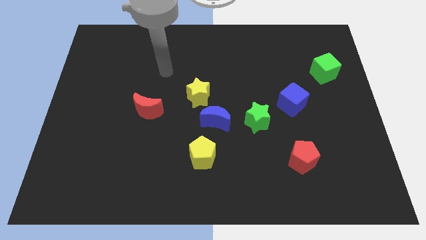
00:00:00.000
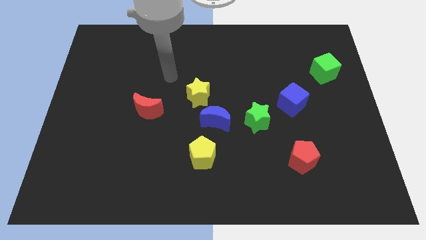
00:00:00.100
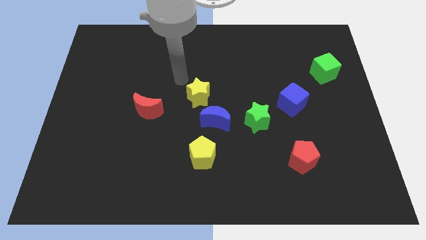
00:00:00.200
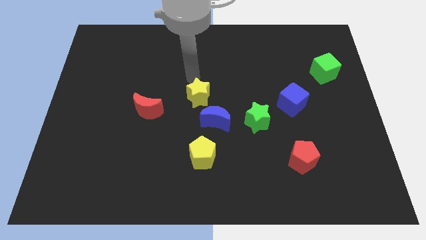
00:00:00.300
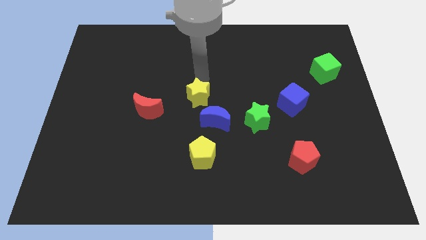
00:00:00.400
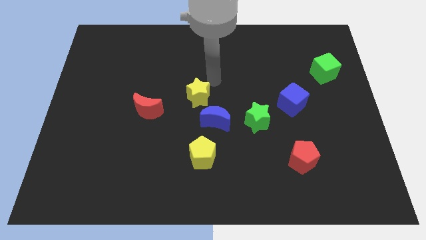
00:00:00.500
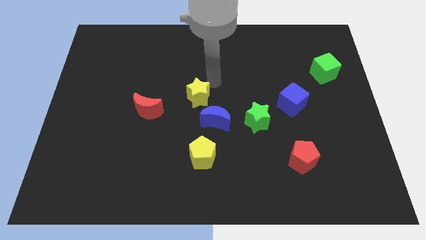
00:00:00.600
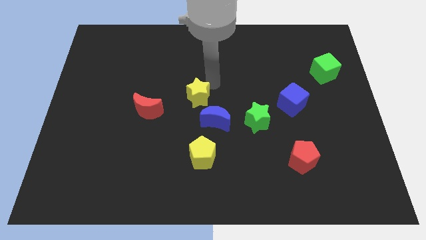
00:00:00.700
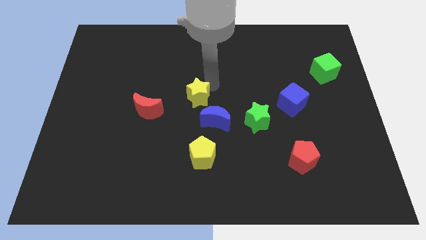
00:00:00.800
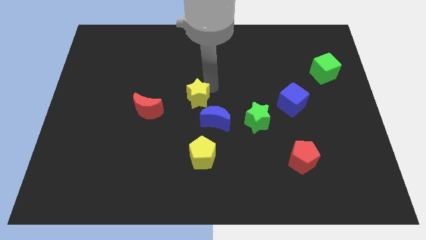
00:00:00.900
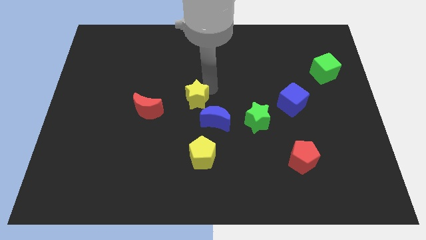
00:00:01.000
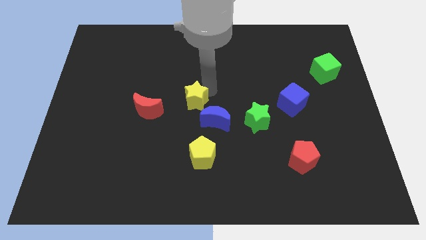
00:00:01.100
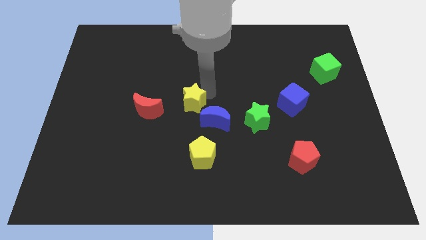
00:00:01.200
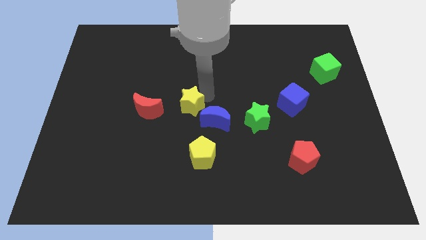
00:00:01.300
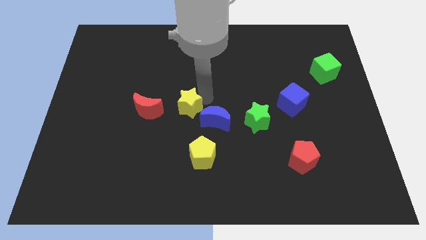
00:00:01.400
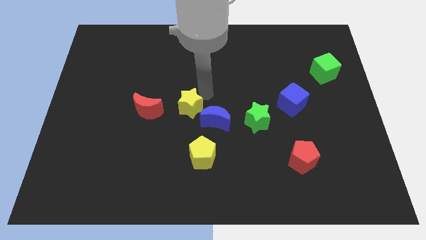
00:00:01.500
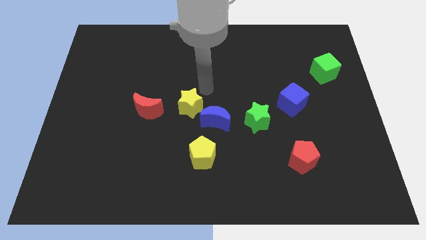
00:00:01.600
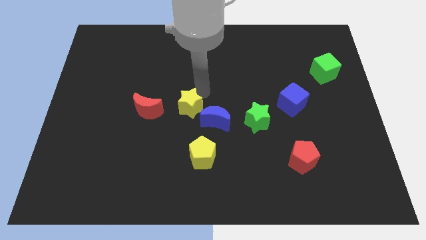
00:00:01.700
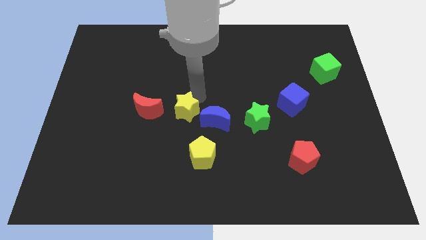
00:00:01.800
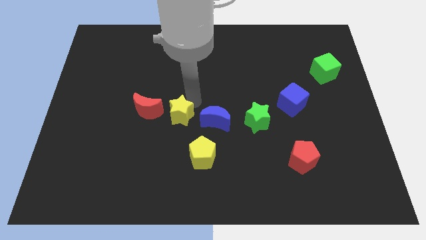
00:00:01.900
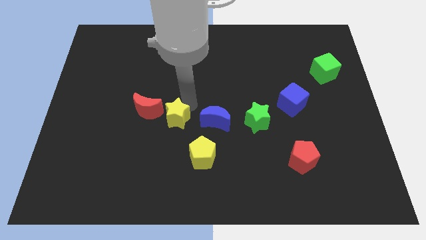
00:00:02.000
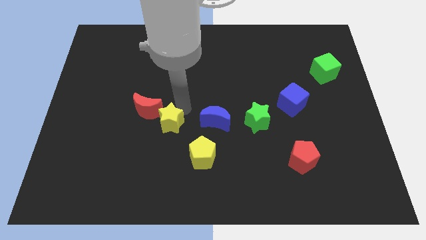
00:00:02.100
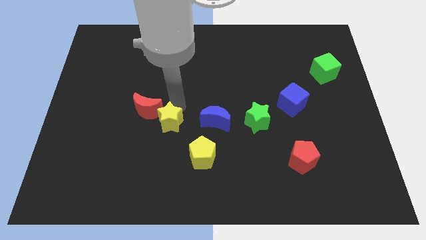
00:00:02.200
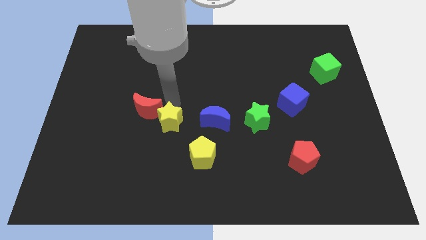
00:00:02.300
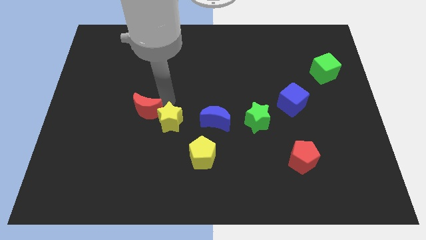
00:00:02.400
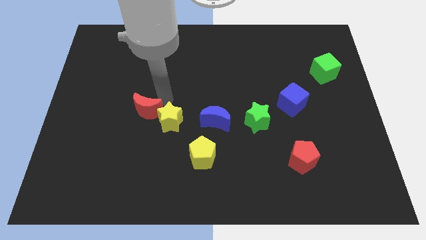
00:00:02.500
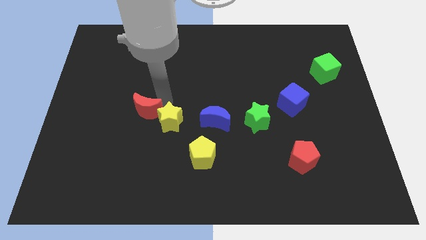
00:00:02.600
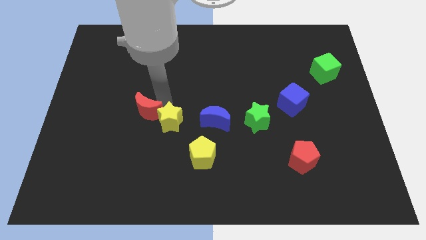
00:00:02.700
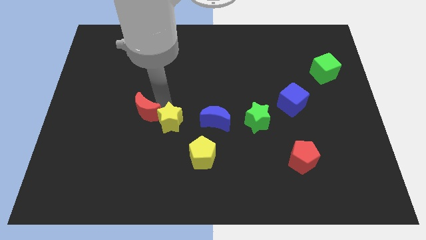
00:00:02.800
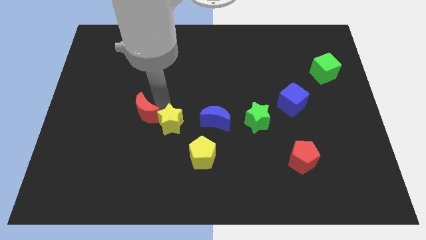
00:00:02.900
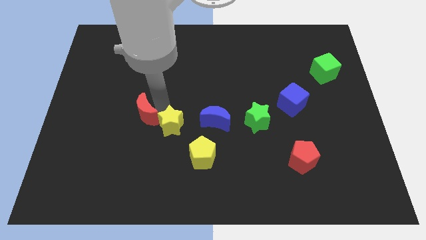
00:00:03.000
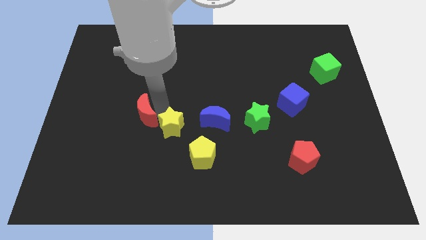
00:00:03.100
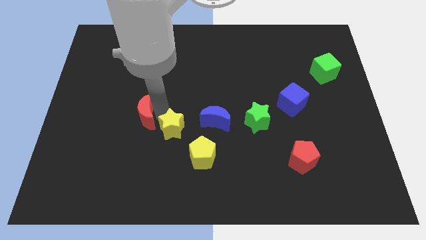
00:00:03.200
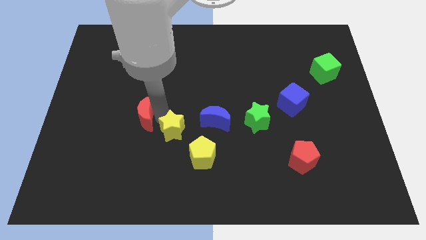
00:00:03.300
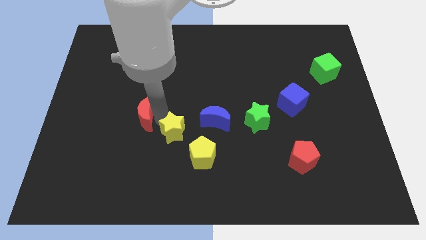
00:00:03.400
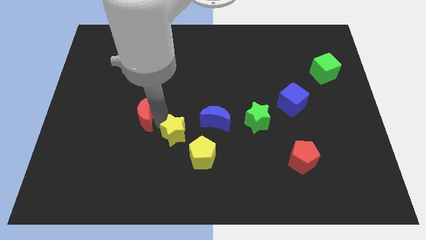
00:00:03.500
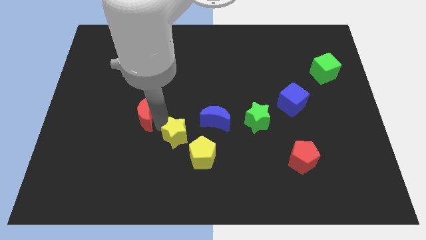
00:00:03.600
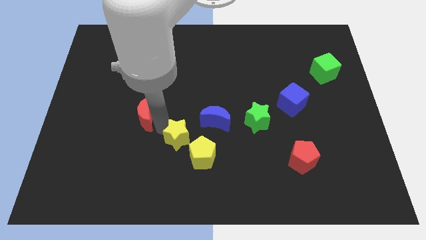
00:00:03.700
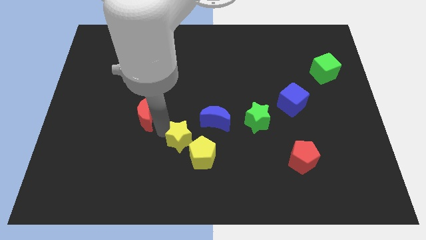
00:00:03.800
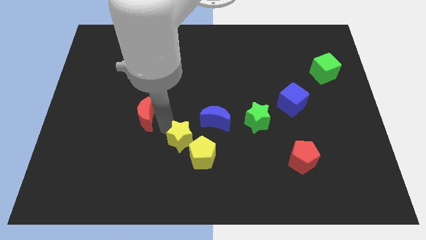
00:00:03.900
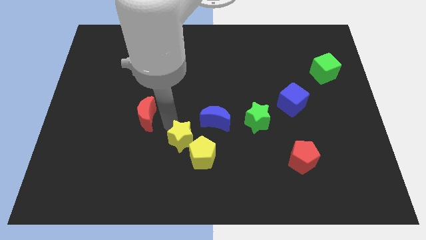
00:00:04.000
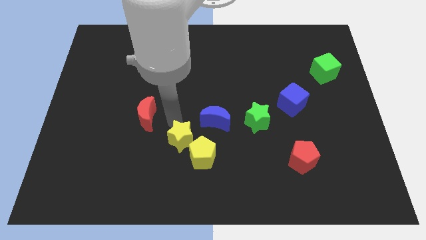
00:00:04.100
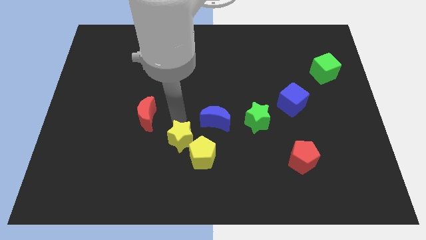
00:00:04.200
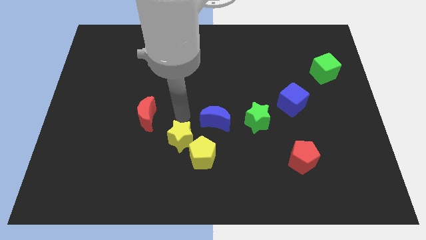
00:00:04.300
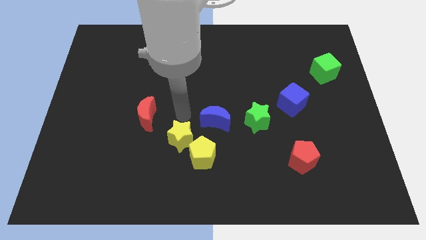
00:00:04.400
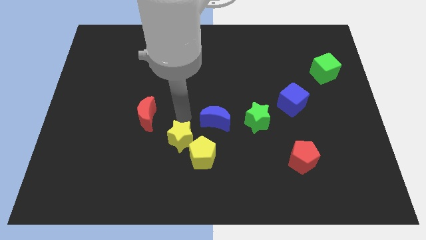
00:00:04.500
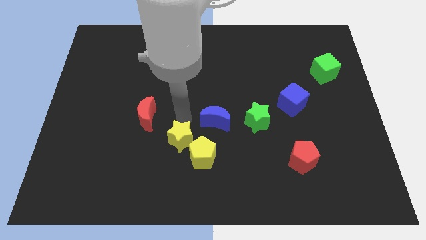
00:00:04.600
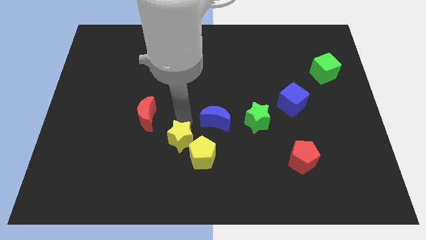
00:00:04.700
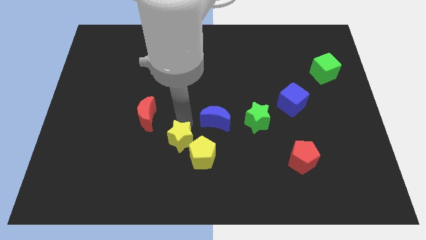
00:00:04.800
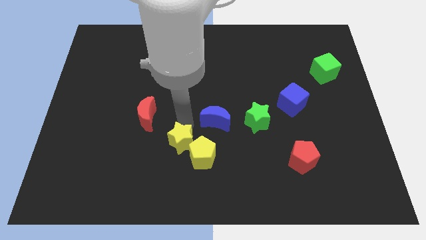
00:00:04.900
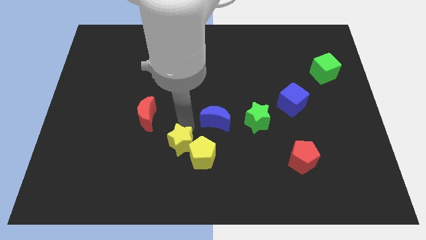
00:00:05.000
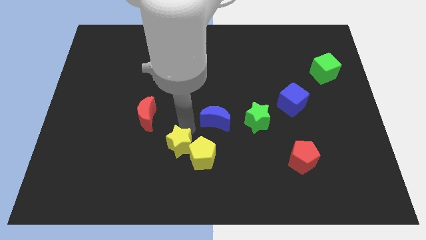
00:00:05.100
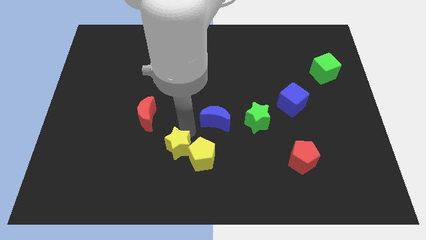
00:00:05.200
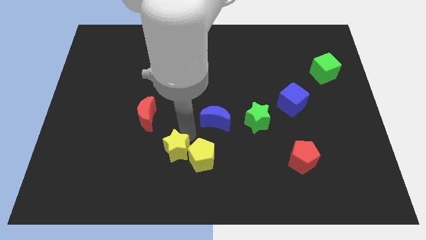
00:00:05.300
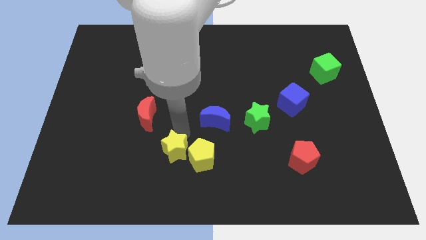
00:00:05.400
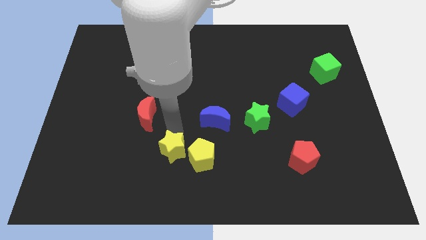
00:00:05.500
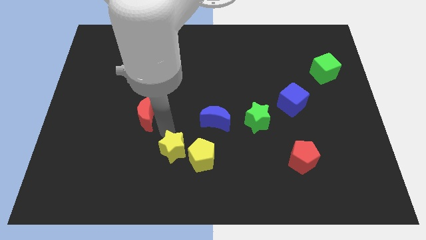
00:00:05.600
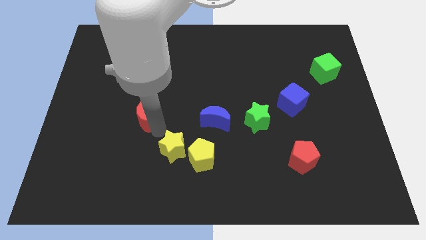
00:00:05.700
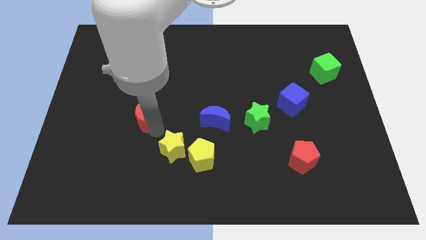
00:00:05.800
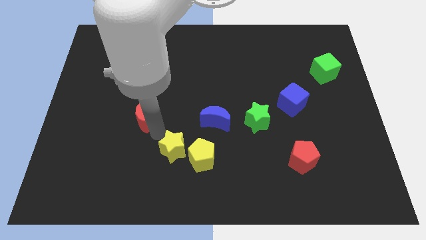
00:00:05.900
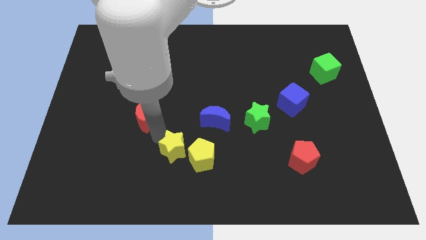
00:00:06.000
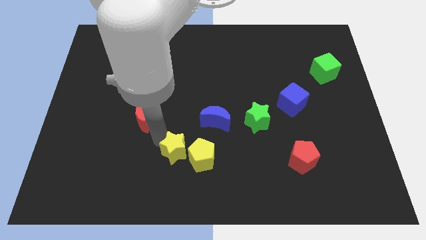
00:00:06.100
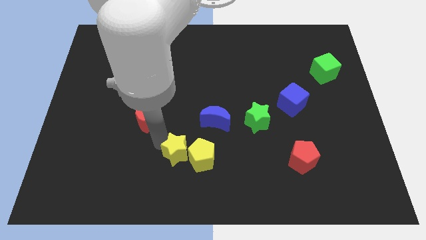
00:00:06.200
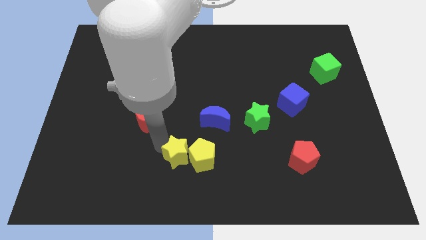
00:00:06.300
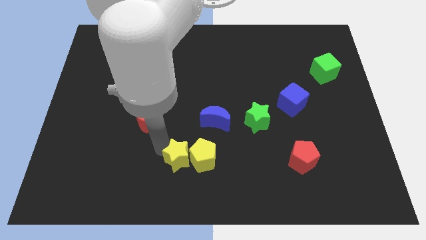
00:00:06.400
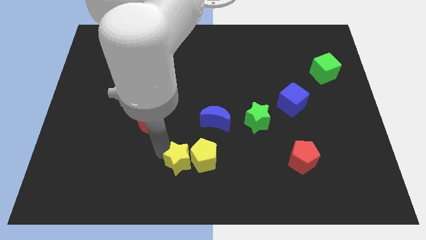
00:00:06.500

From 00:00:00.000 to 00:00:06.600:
move the yellow star to the bottom side
